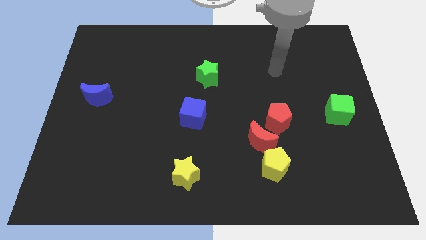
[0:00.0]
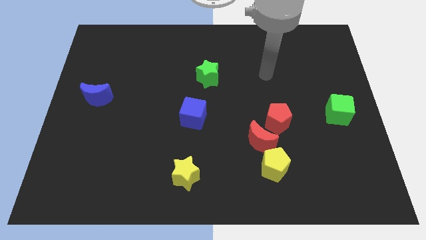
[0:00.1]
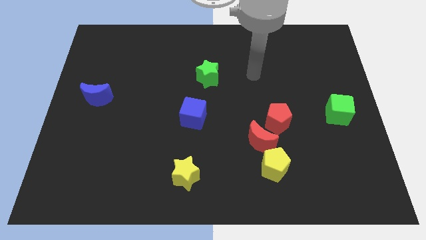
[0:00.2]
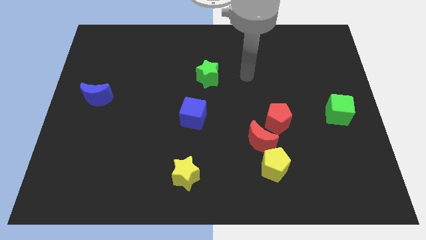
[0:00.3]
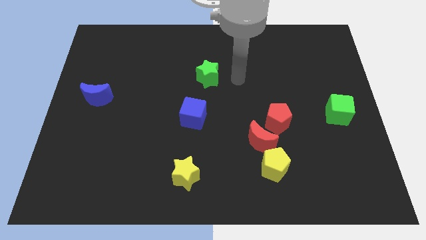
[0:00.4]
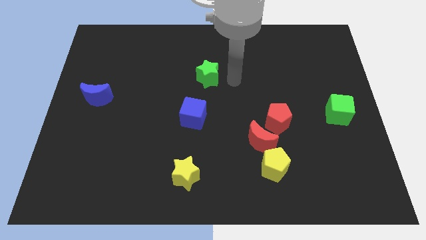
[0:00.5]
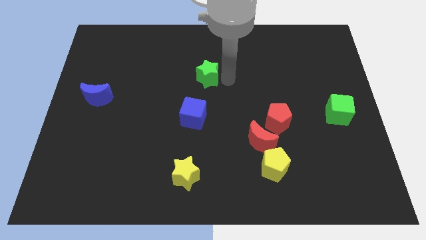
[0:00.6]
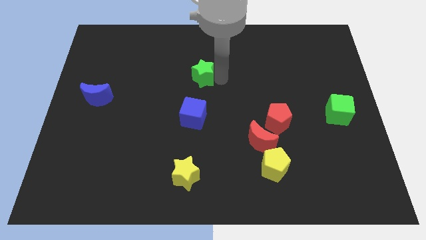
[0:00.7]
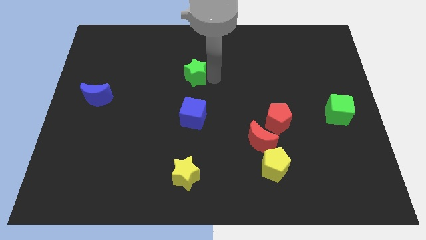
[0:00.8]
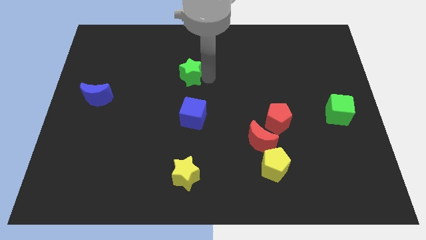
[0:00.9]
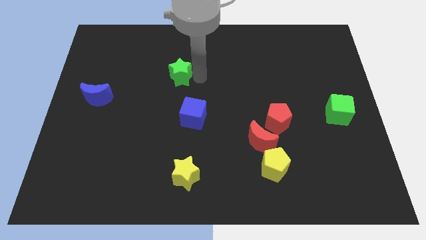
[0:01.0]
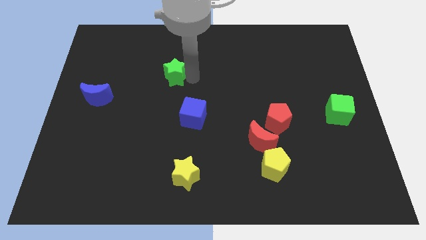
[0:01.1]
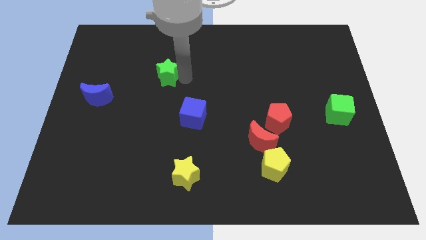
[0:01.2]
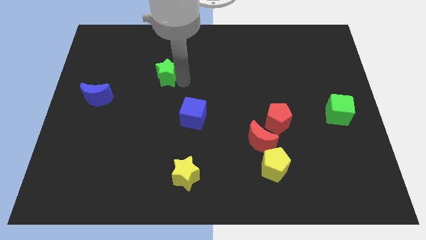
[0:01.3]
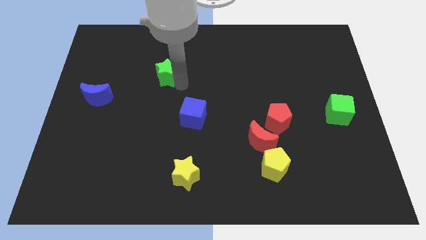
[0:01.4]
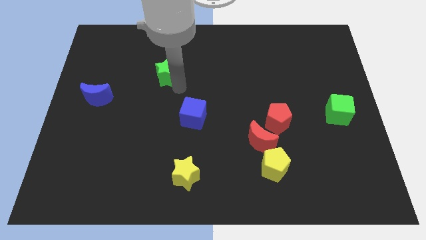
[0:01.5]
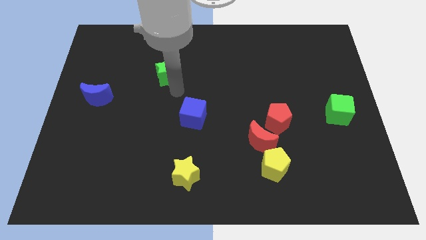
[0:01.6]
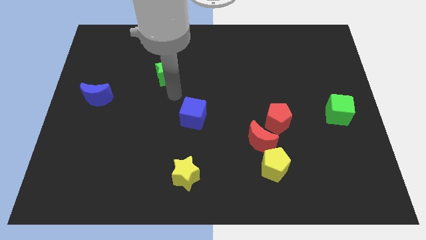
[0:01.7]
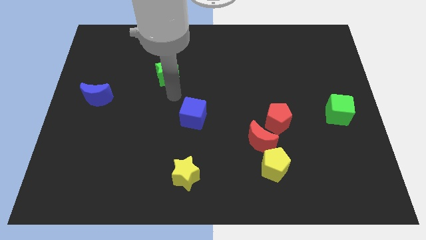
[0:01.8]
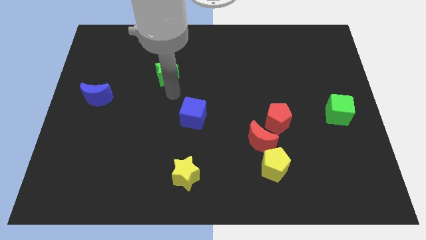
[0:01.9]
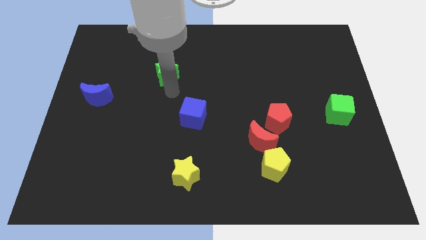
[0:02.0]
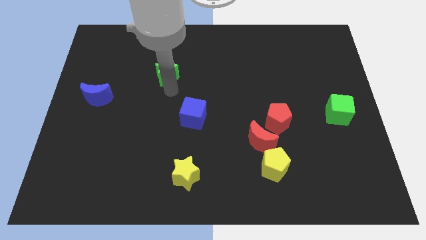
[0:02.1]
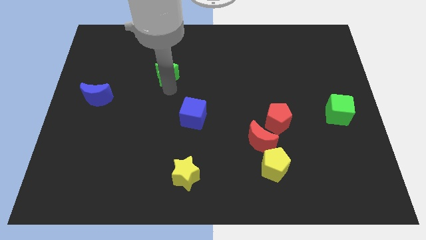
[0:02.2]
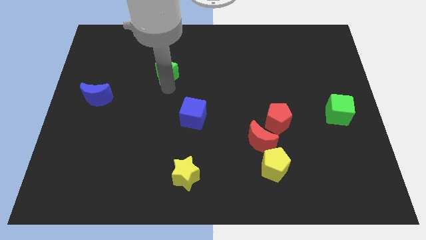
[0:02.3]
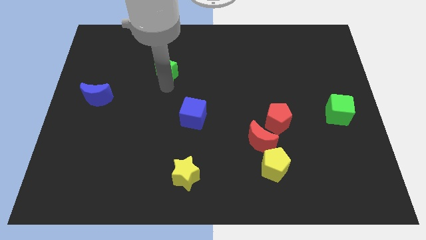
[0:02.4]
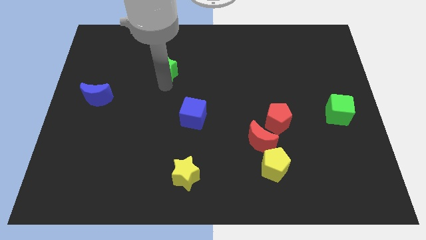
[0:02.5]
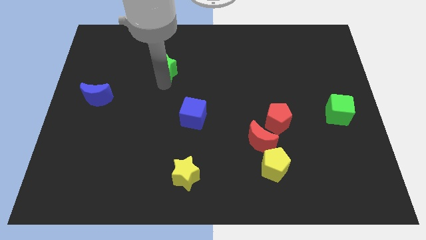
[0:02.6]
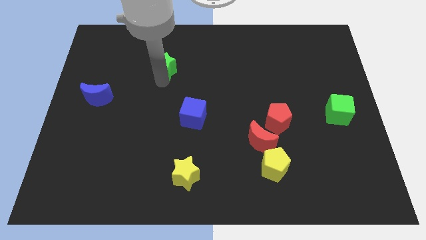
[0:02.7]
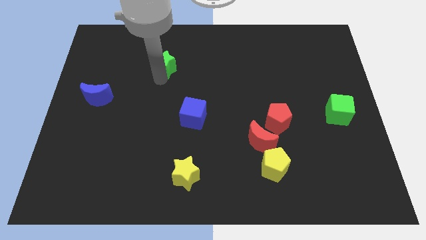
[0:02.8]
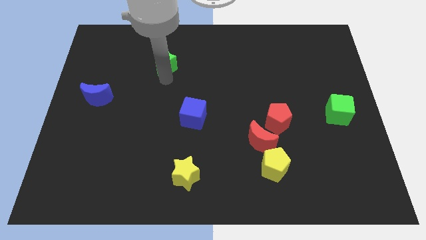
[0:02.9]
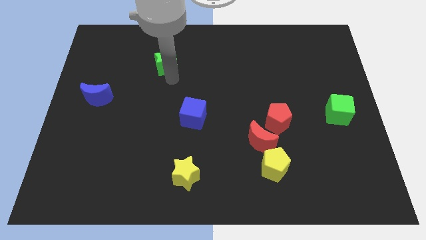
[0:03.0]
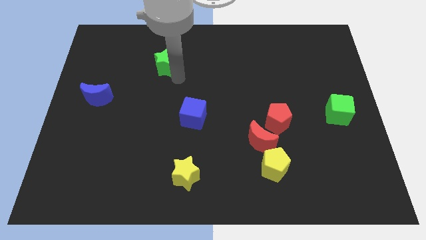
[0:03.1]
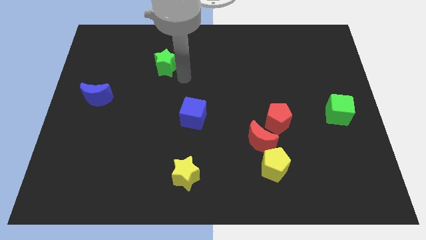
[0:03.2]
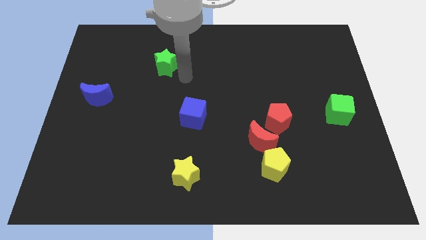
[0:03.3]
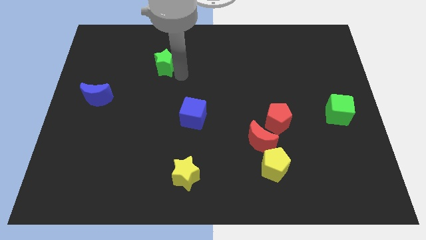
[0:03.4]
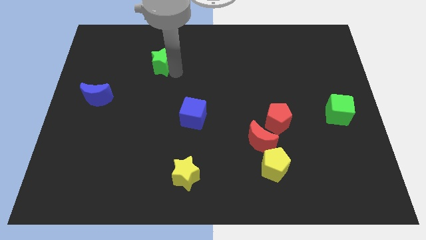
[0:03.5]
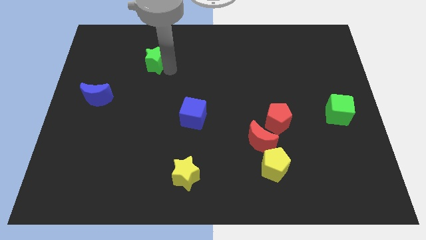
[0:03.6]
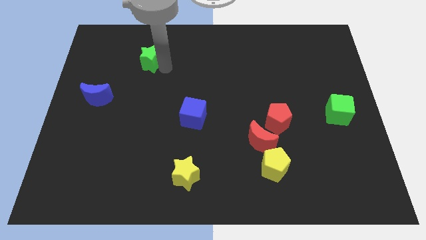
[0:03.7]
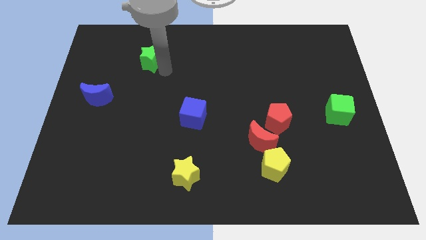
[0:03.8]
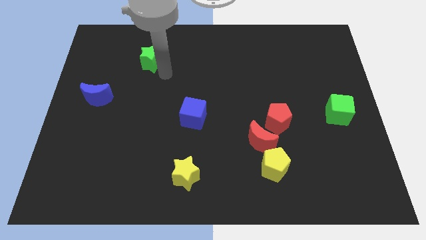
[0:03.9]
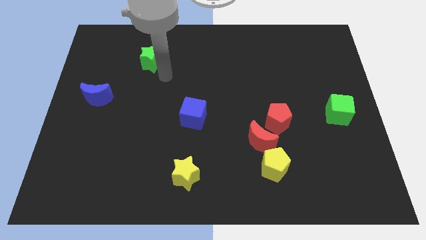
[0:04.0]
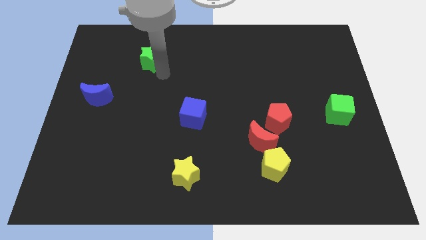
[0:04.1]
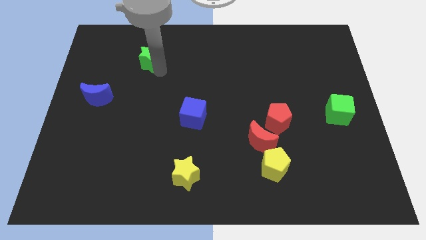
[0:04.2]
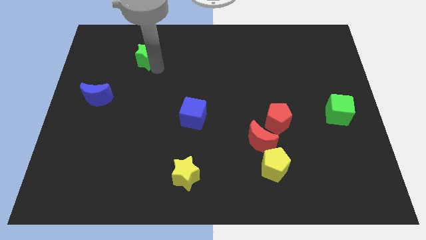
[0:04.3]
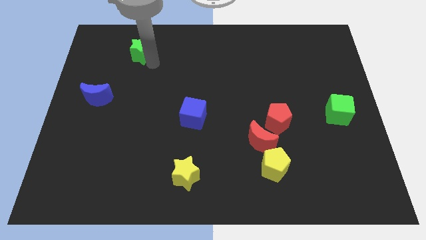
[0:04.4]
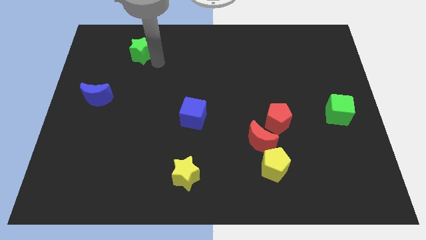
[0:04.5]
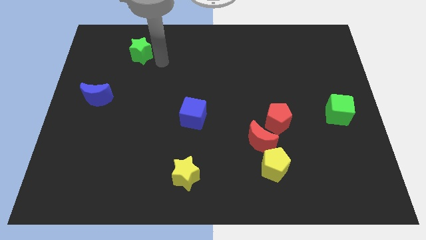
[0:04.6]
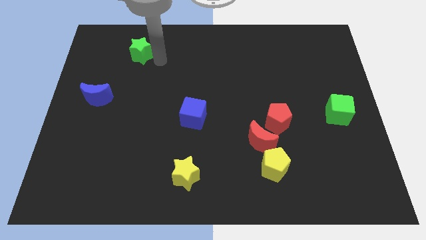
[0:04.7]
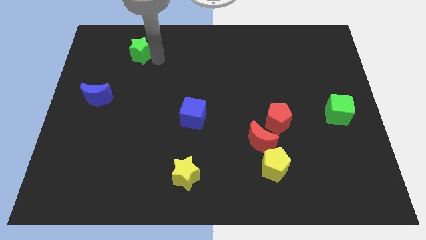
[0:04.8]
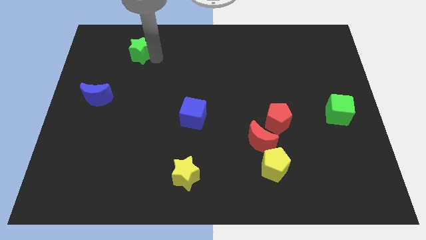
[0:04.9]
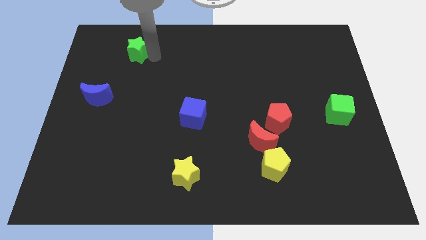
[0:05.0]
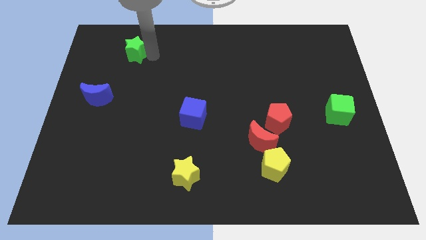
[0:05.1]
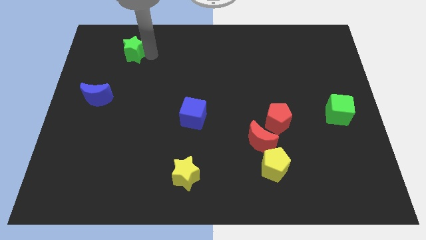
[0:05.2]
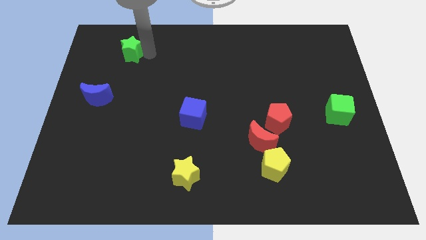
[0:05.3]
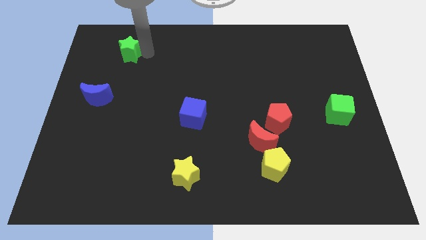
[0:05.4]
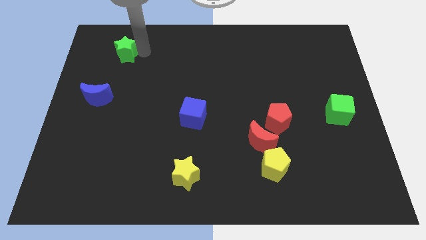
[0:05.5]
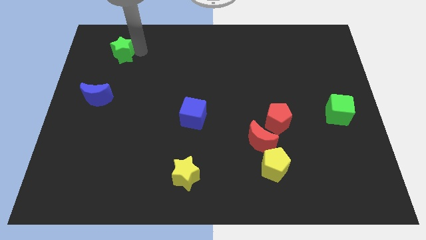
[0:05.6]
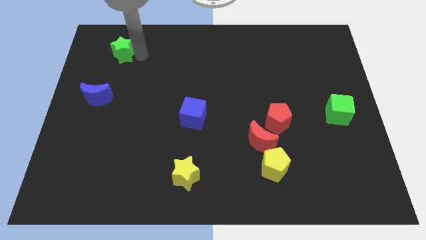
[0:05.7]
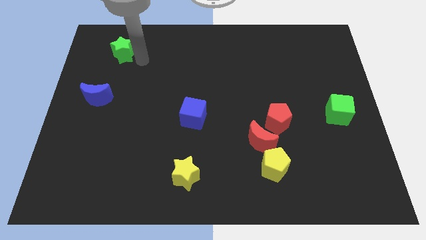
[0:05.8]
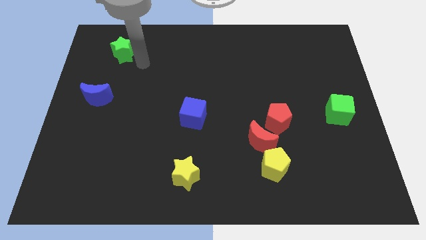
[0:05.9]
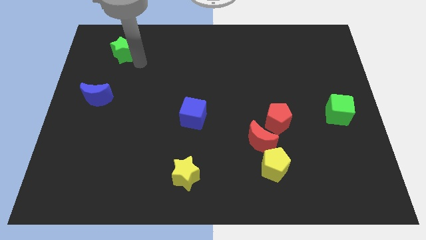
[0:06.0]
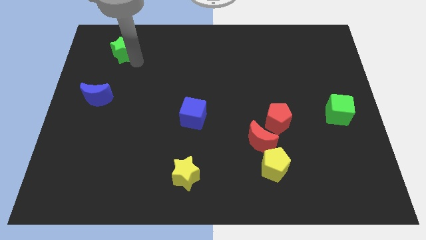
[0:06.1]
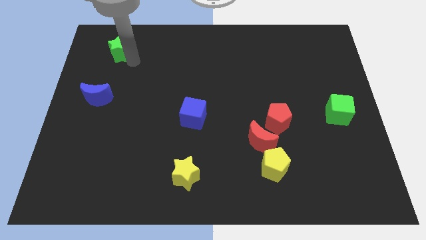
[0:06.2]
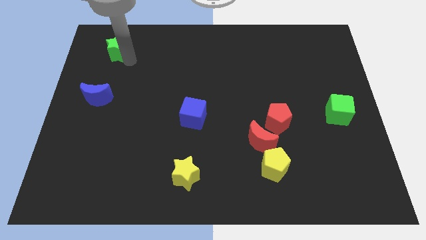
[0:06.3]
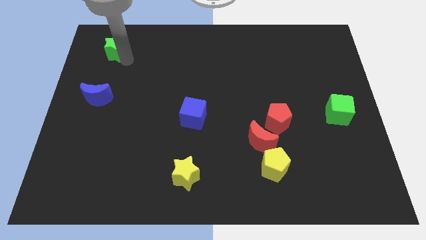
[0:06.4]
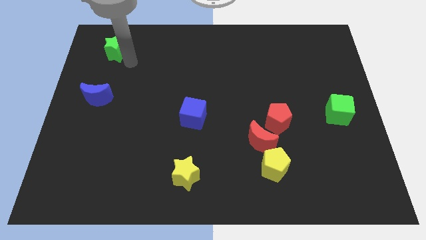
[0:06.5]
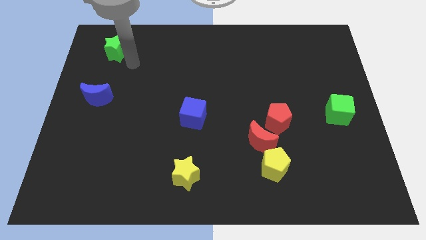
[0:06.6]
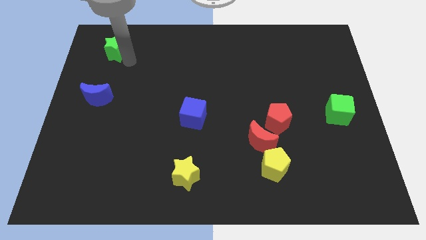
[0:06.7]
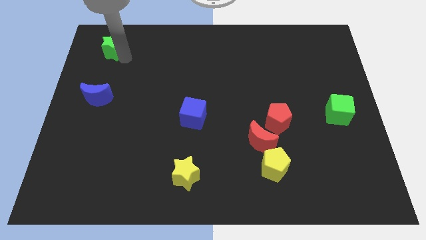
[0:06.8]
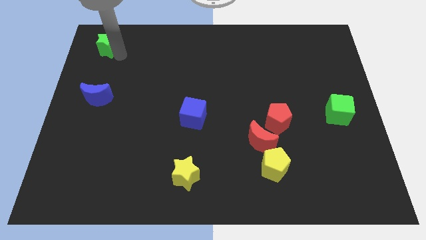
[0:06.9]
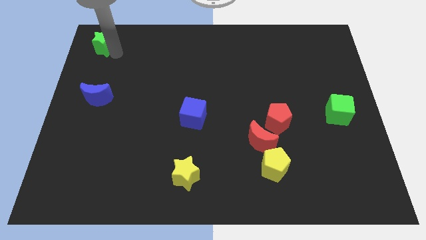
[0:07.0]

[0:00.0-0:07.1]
move the green star to the top left
